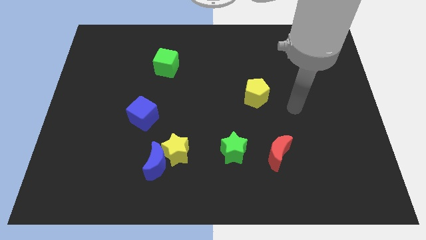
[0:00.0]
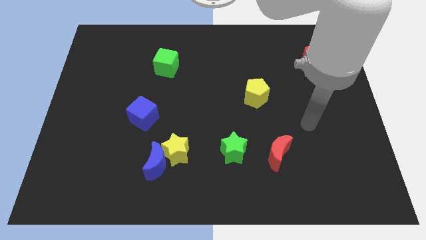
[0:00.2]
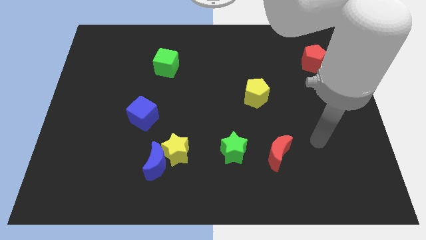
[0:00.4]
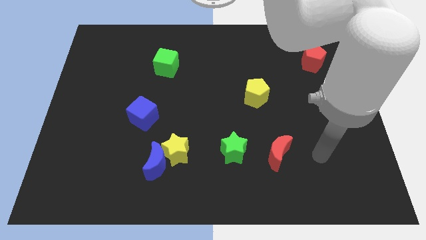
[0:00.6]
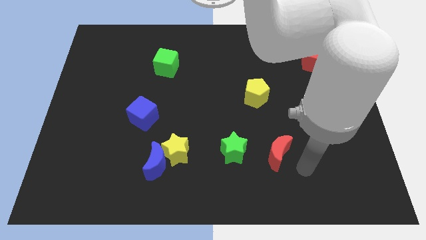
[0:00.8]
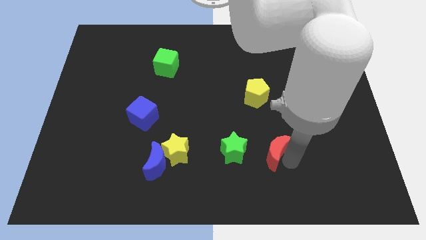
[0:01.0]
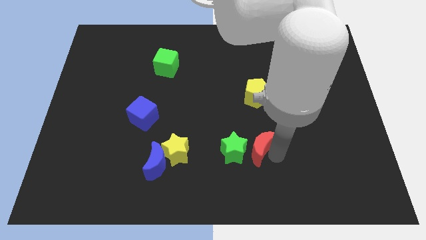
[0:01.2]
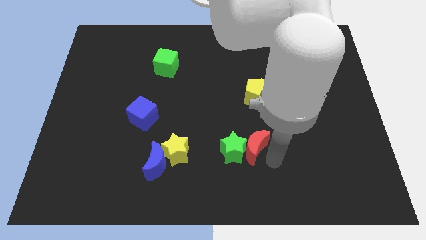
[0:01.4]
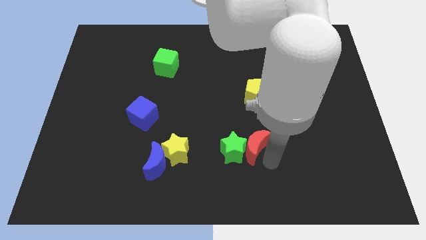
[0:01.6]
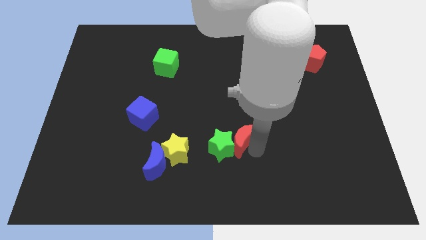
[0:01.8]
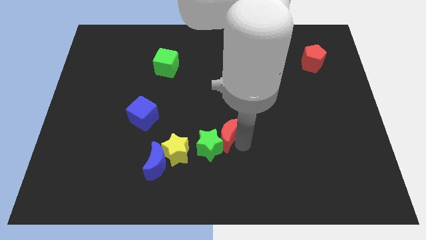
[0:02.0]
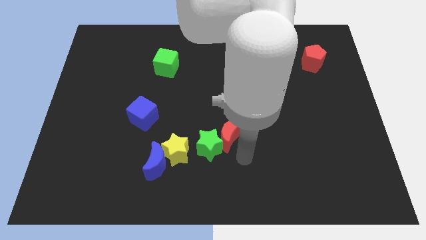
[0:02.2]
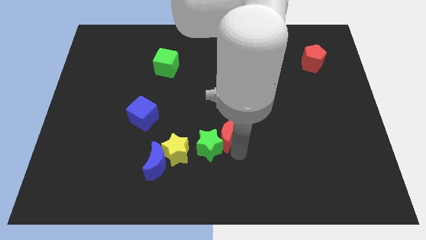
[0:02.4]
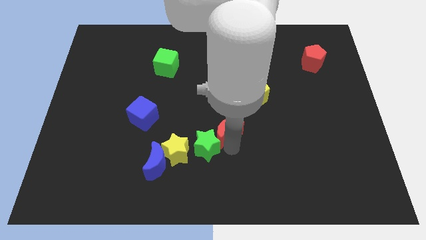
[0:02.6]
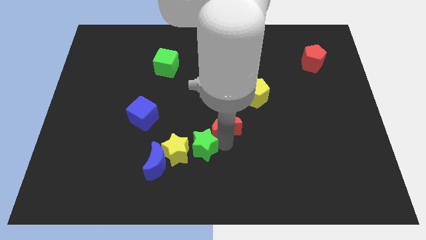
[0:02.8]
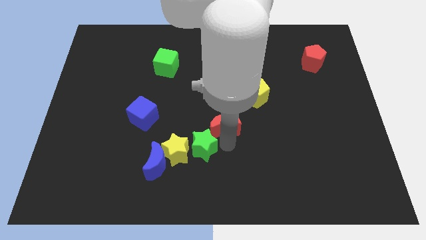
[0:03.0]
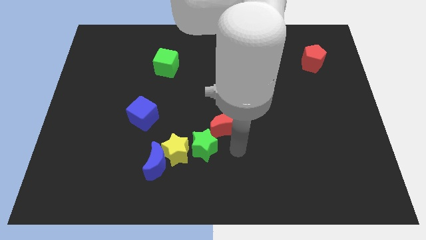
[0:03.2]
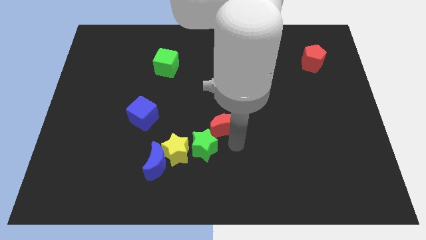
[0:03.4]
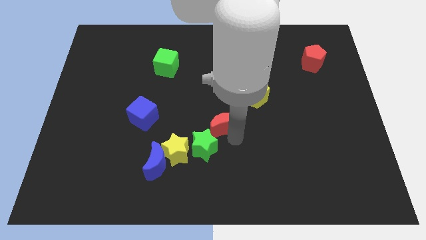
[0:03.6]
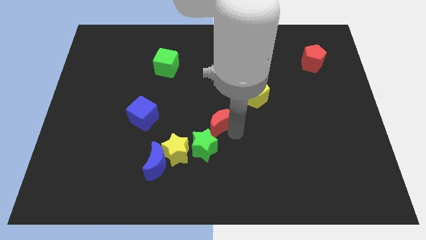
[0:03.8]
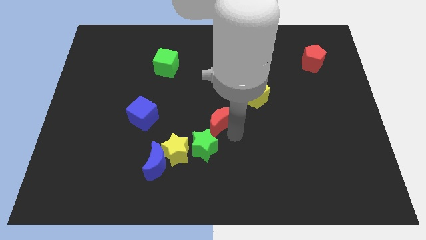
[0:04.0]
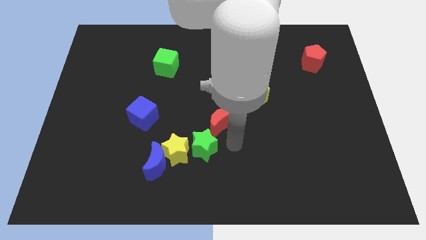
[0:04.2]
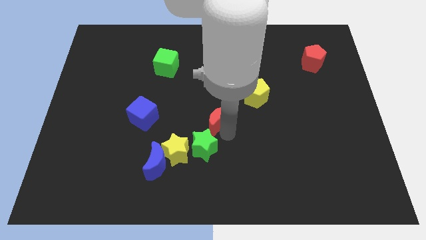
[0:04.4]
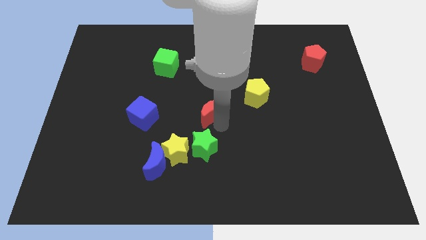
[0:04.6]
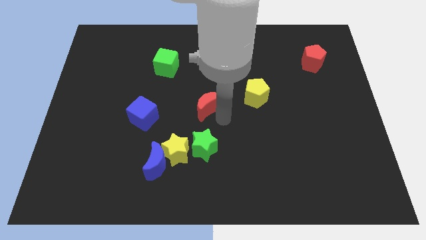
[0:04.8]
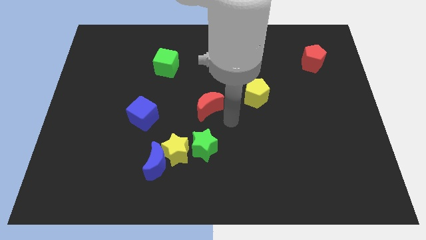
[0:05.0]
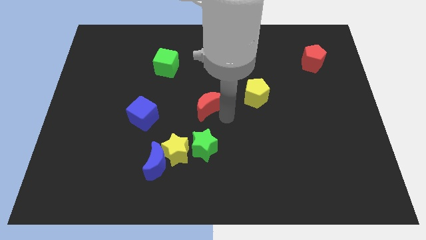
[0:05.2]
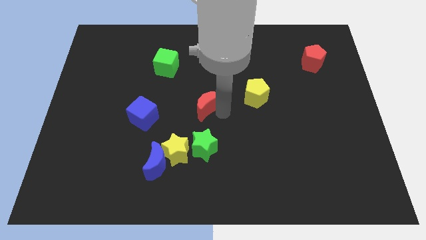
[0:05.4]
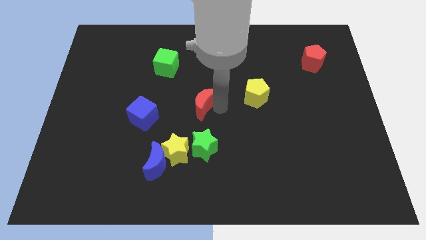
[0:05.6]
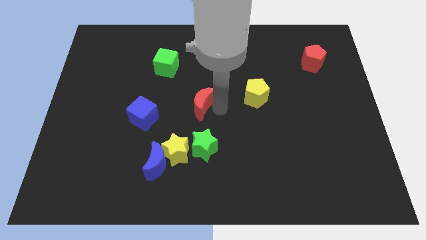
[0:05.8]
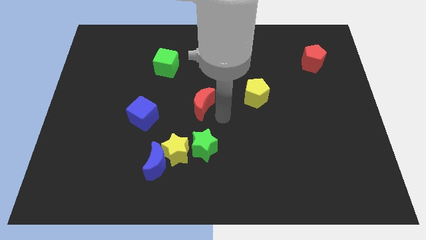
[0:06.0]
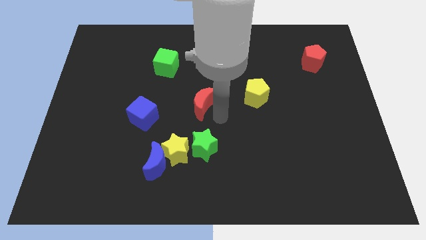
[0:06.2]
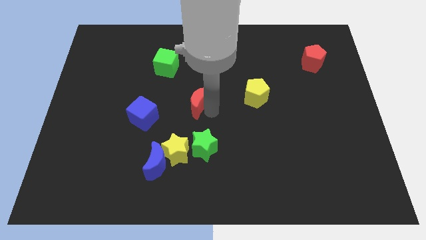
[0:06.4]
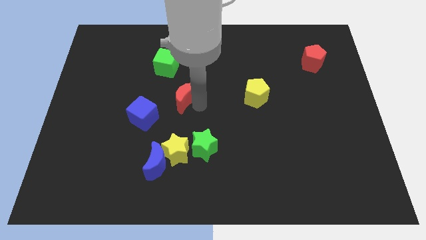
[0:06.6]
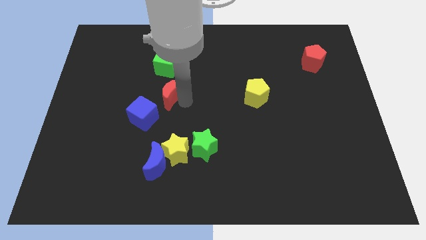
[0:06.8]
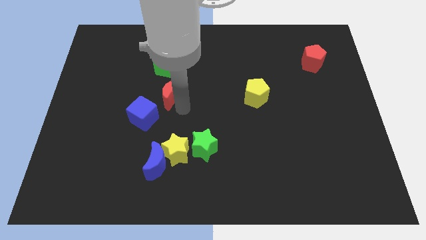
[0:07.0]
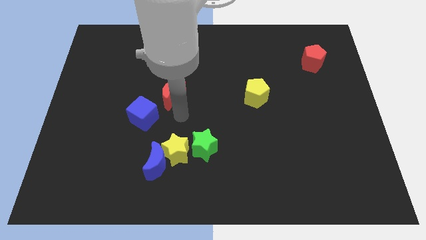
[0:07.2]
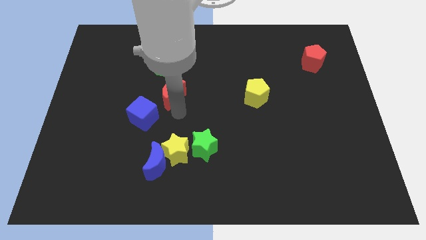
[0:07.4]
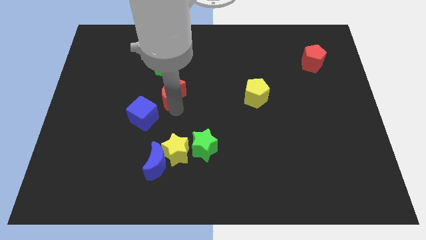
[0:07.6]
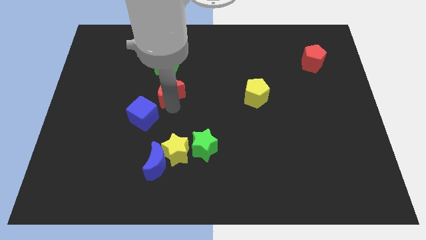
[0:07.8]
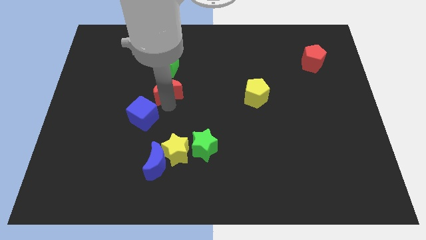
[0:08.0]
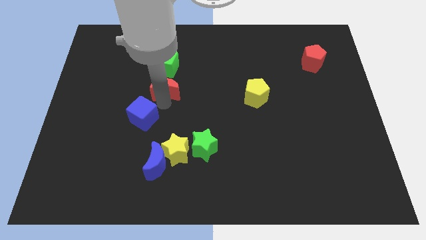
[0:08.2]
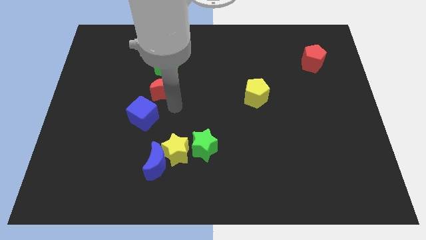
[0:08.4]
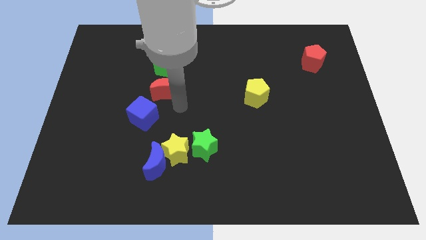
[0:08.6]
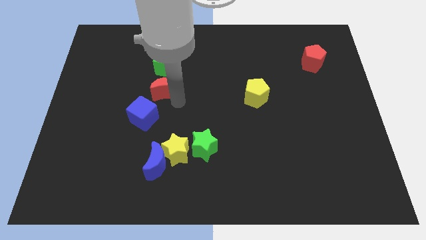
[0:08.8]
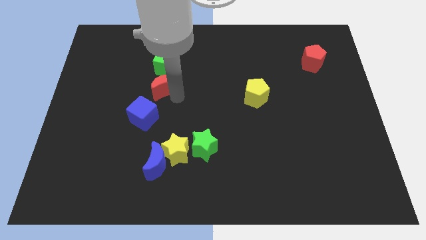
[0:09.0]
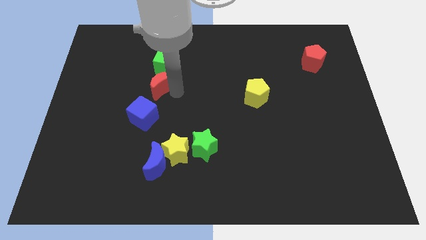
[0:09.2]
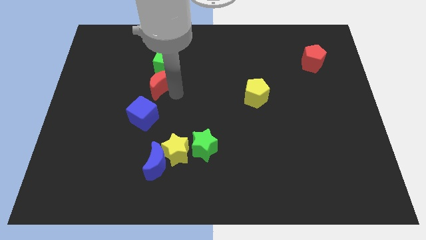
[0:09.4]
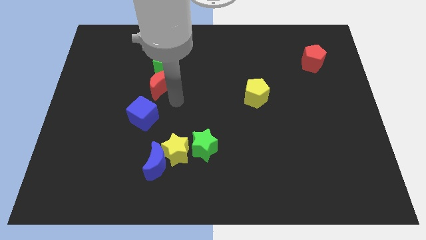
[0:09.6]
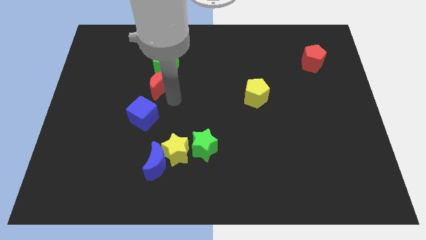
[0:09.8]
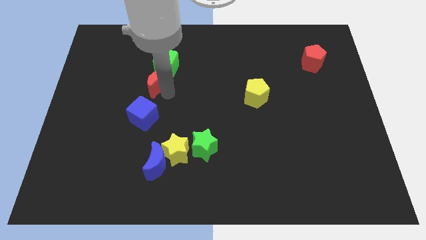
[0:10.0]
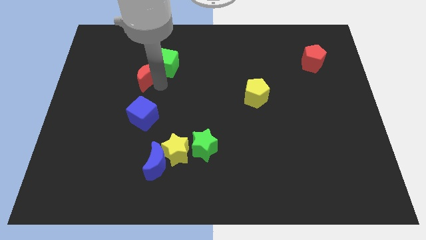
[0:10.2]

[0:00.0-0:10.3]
slide the red moon left of the green cube

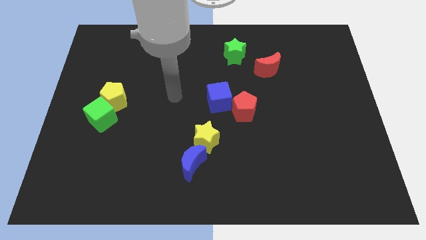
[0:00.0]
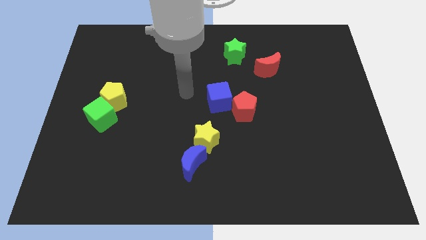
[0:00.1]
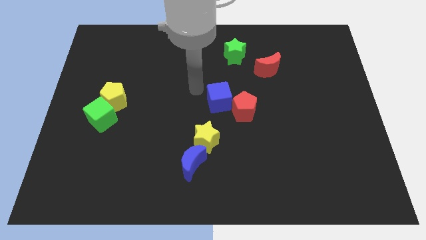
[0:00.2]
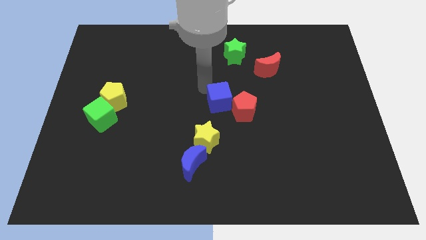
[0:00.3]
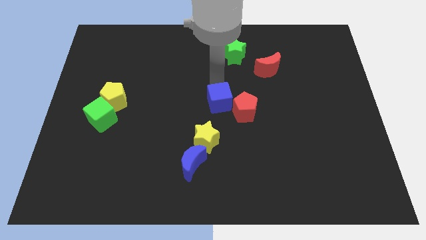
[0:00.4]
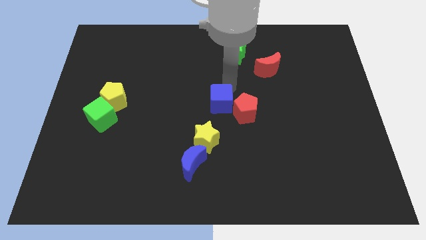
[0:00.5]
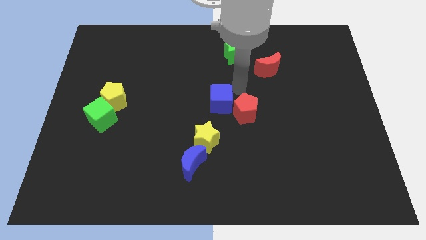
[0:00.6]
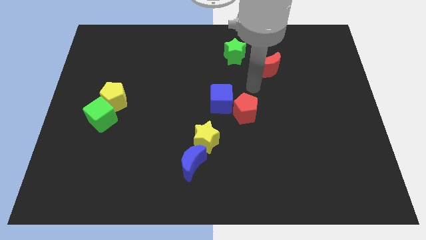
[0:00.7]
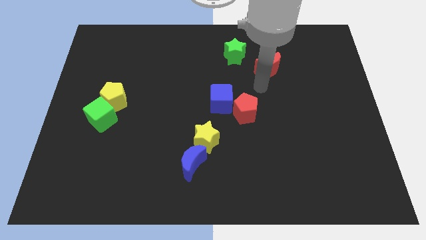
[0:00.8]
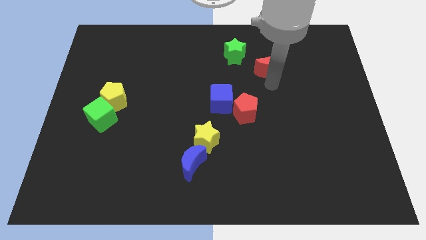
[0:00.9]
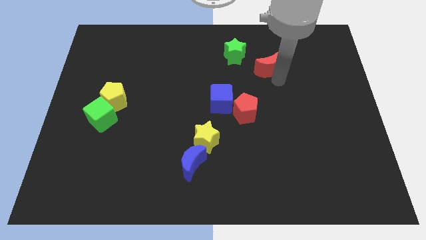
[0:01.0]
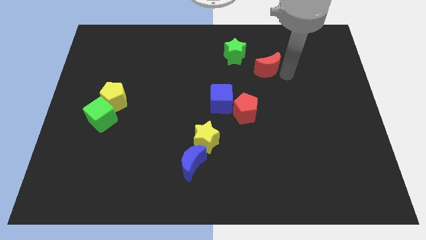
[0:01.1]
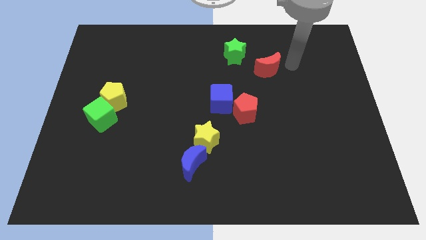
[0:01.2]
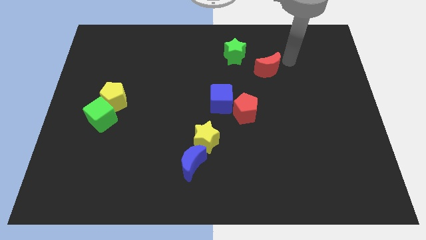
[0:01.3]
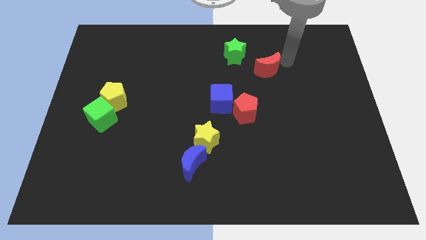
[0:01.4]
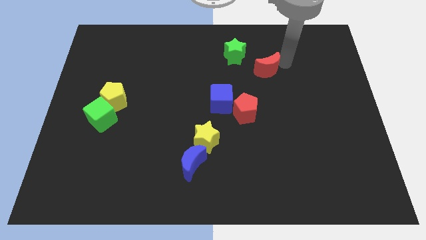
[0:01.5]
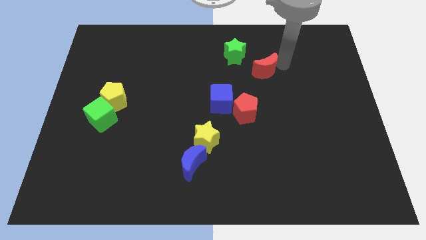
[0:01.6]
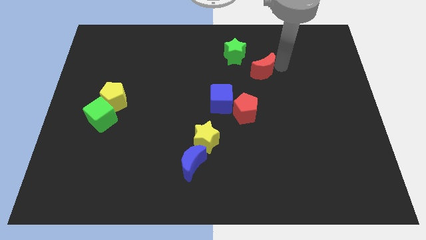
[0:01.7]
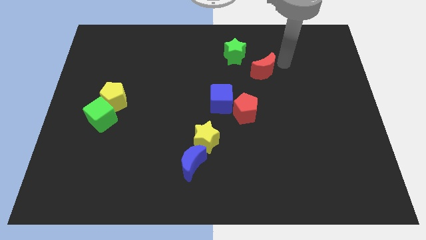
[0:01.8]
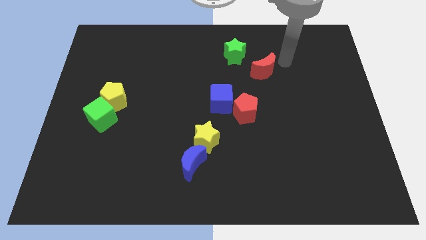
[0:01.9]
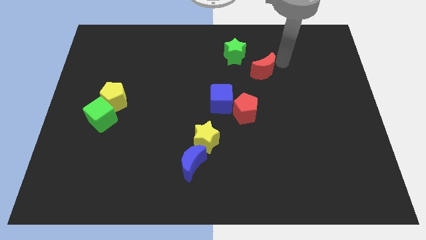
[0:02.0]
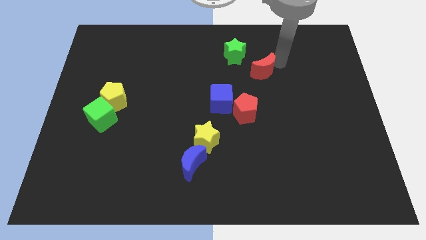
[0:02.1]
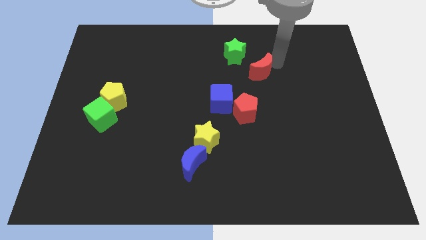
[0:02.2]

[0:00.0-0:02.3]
move the red moon to the top of the red pentagon
